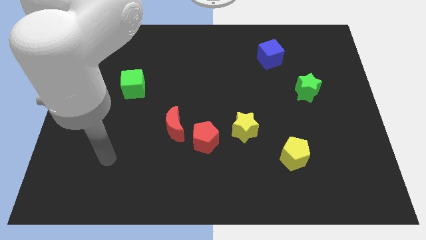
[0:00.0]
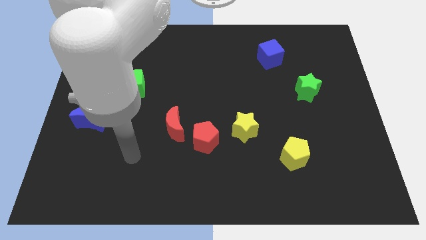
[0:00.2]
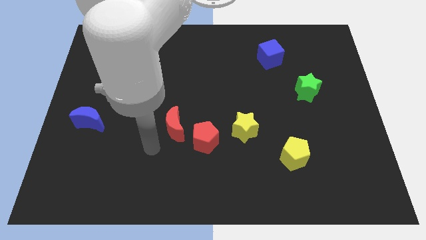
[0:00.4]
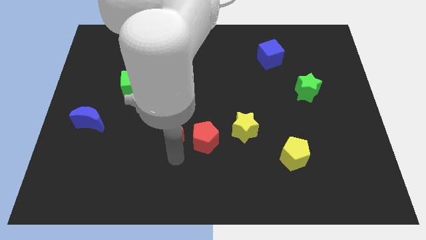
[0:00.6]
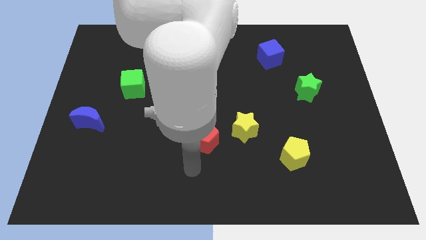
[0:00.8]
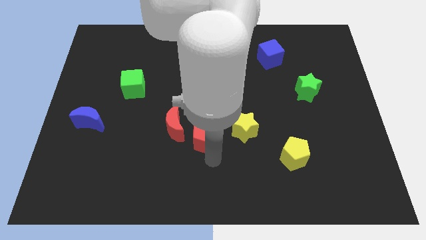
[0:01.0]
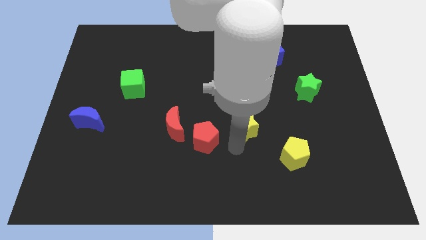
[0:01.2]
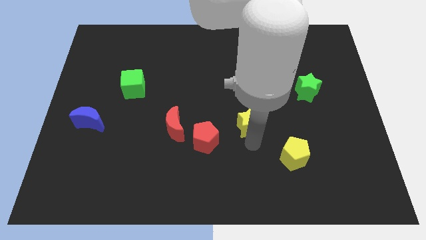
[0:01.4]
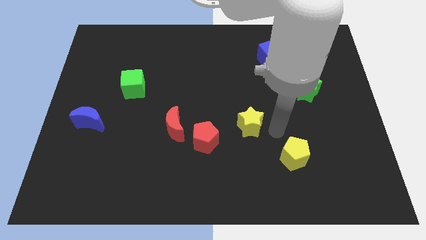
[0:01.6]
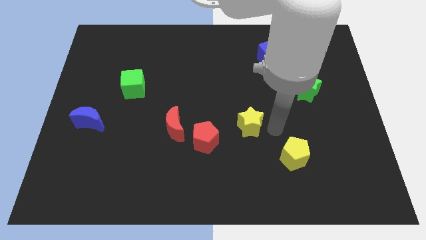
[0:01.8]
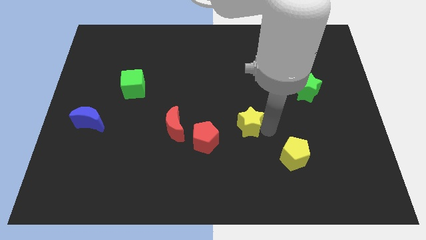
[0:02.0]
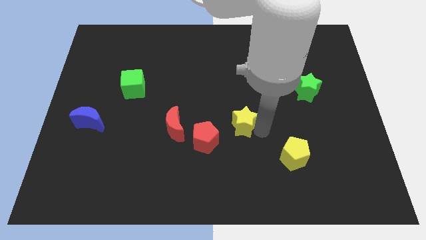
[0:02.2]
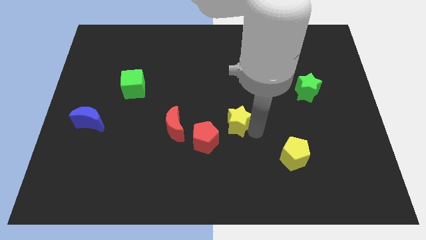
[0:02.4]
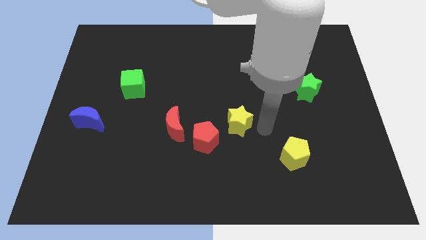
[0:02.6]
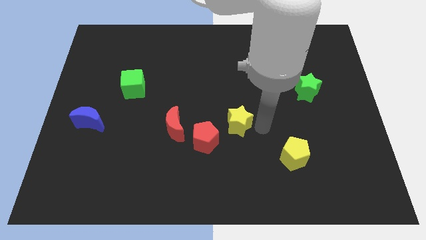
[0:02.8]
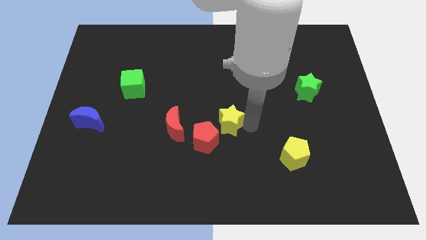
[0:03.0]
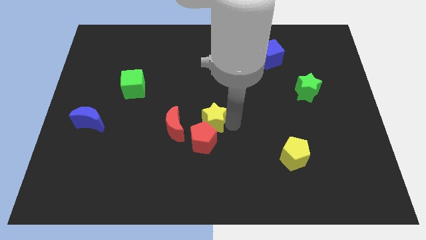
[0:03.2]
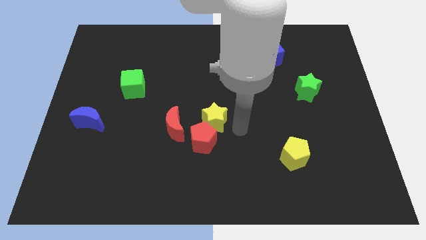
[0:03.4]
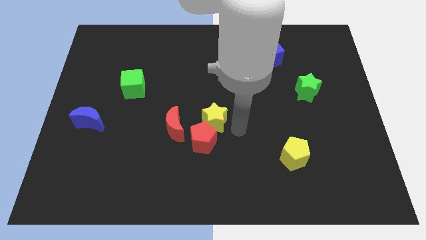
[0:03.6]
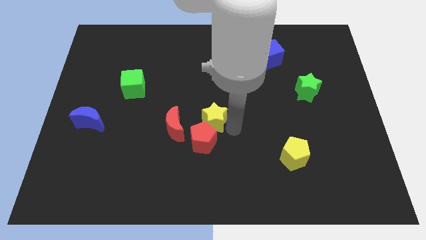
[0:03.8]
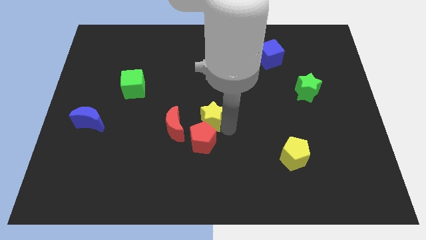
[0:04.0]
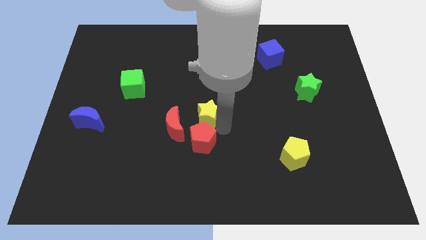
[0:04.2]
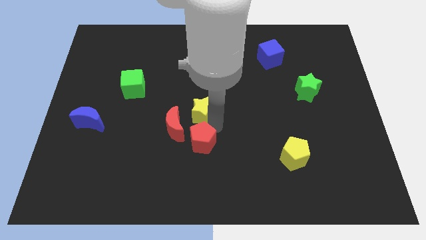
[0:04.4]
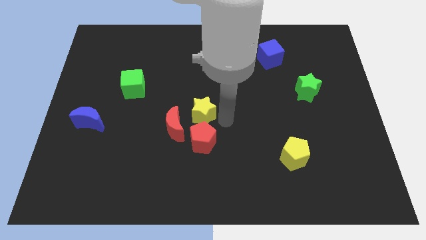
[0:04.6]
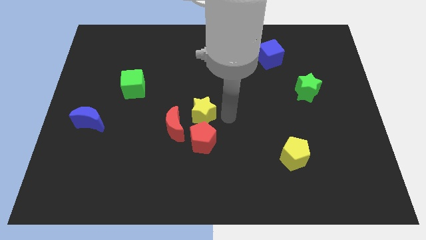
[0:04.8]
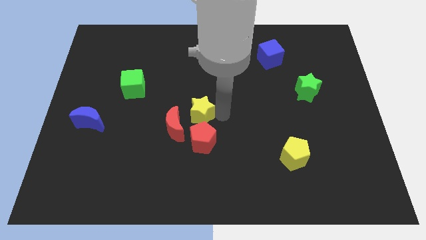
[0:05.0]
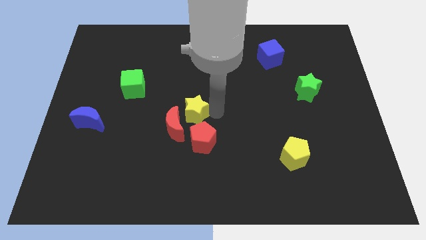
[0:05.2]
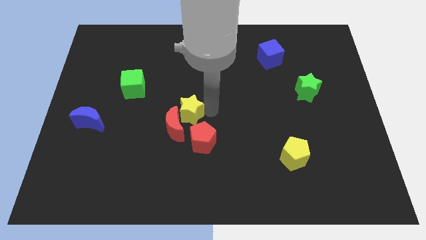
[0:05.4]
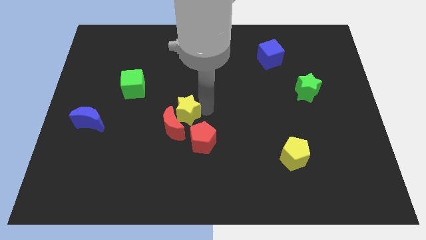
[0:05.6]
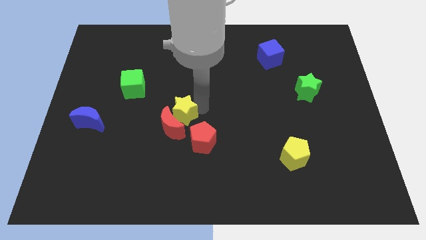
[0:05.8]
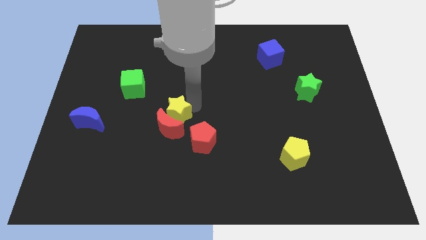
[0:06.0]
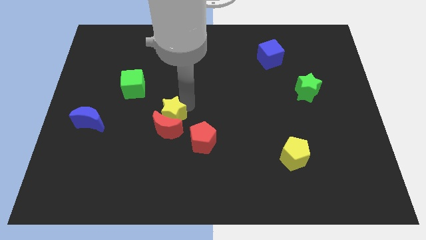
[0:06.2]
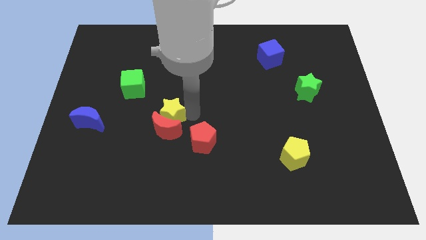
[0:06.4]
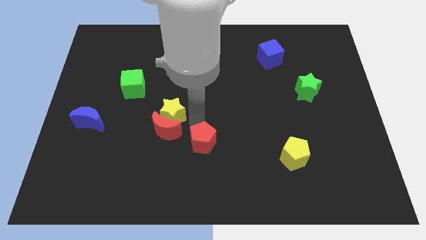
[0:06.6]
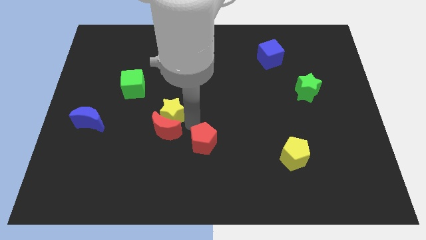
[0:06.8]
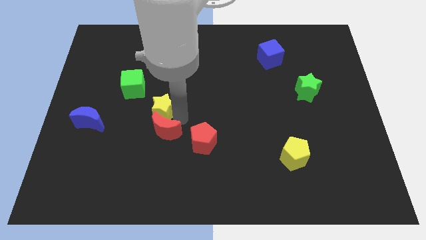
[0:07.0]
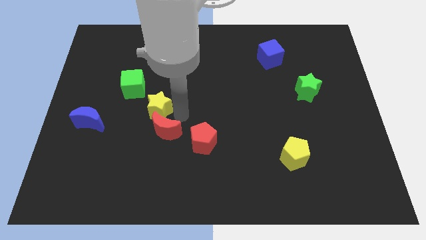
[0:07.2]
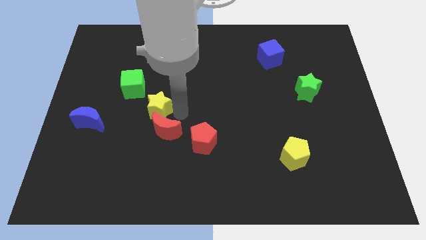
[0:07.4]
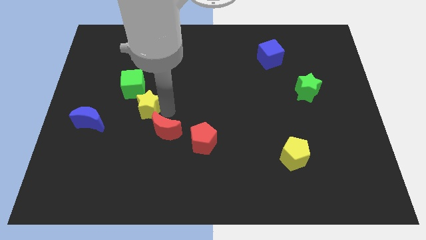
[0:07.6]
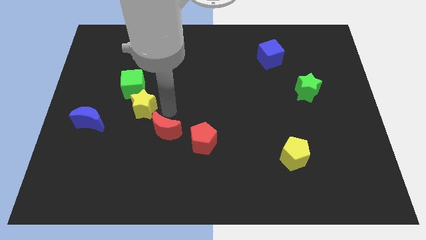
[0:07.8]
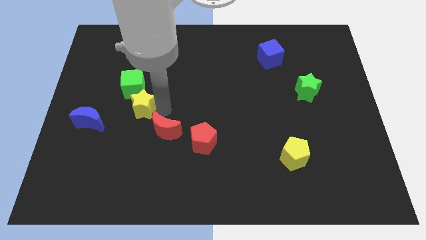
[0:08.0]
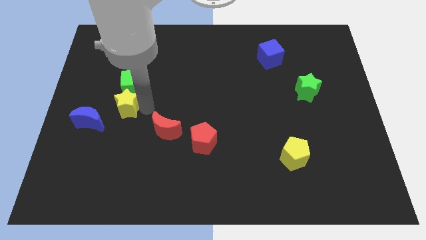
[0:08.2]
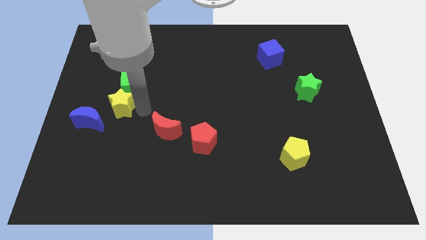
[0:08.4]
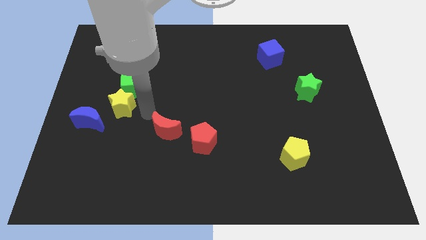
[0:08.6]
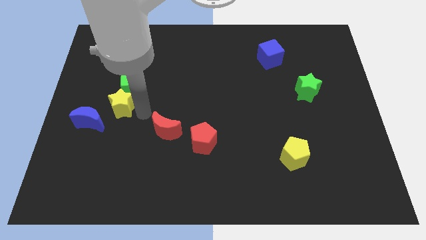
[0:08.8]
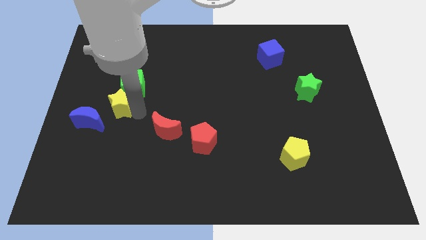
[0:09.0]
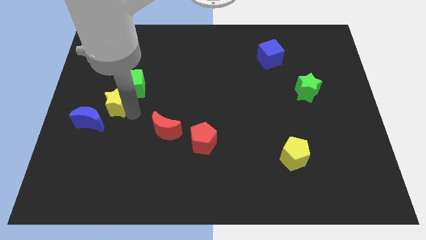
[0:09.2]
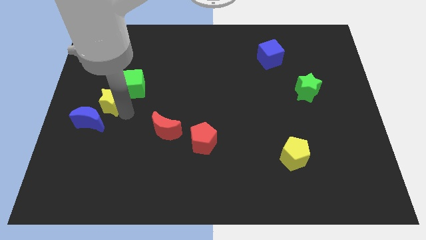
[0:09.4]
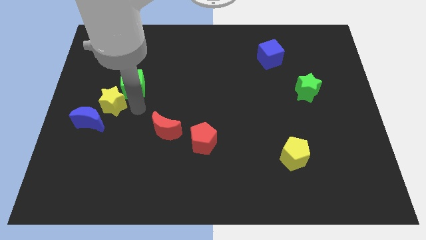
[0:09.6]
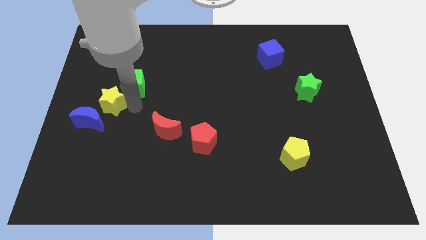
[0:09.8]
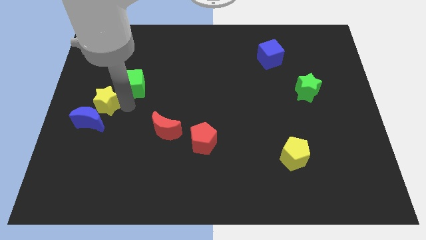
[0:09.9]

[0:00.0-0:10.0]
move the yellow star to the center left

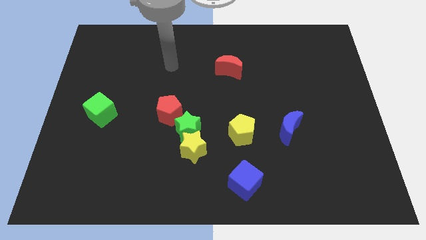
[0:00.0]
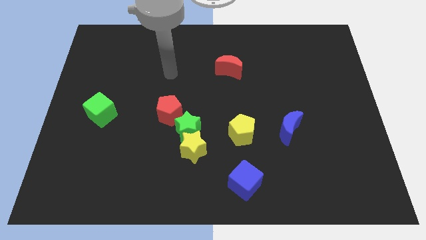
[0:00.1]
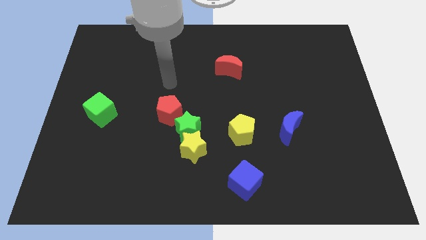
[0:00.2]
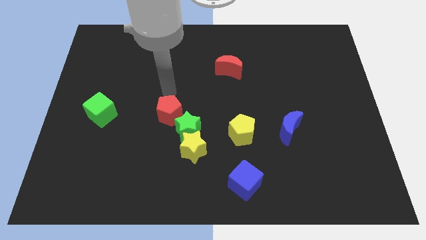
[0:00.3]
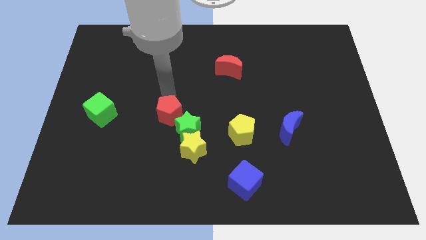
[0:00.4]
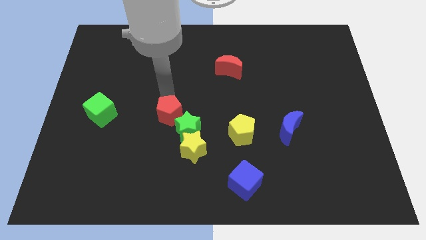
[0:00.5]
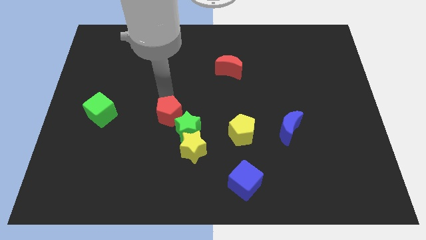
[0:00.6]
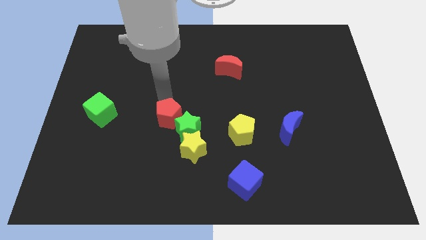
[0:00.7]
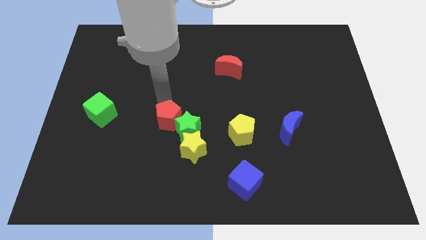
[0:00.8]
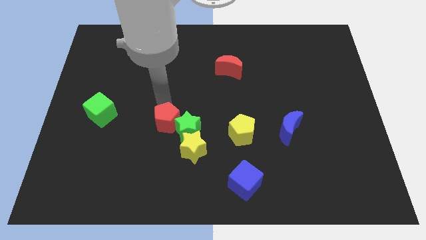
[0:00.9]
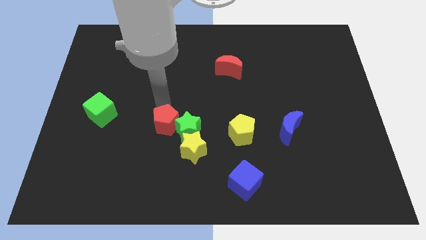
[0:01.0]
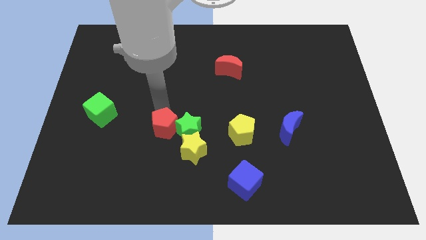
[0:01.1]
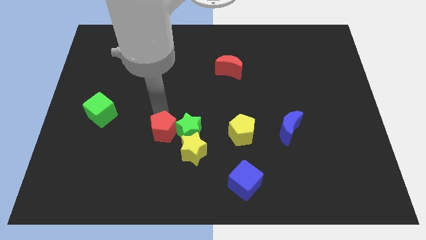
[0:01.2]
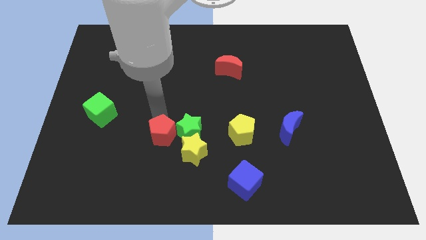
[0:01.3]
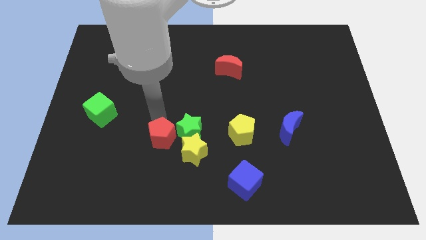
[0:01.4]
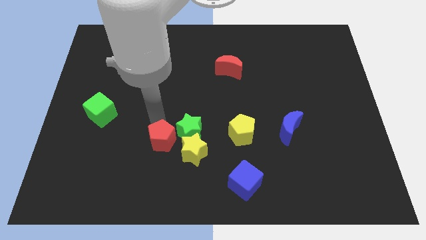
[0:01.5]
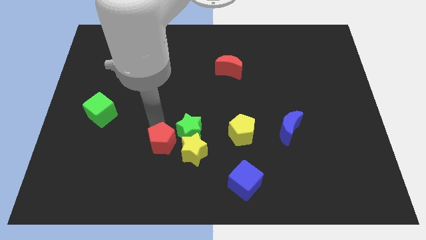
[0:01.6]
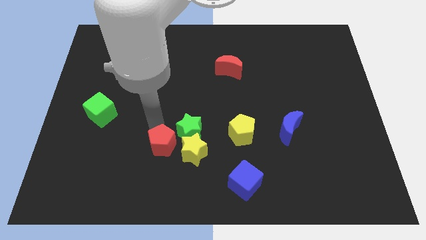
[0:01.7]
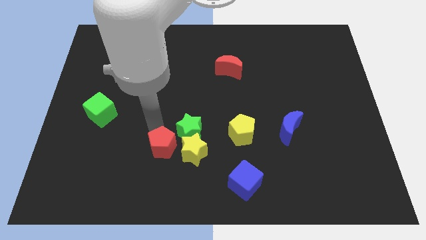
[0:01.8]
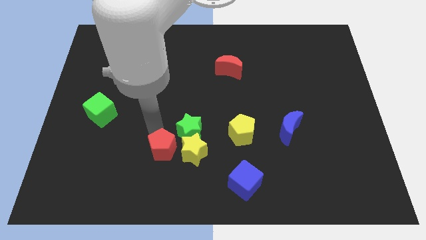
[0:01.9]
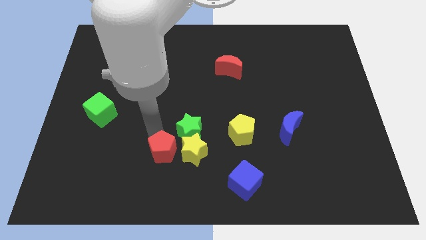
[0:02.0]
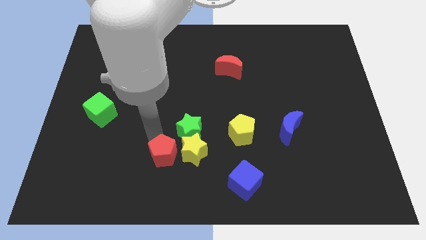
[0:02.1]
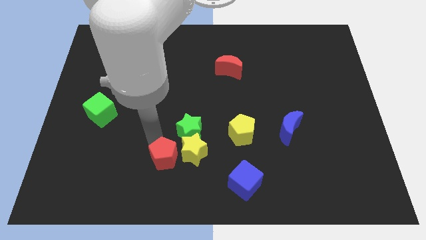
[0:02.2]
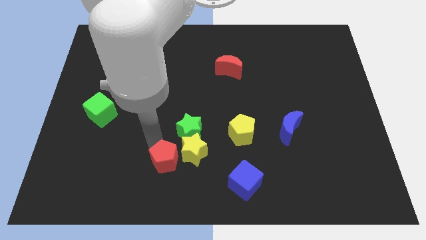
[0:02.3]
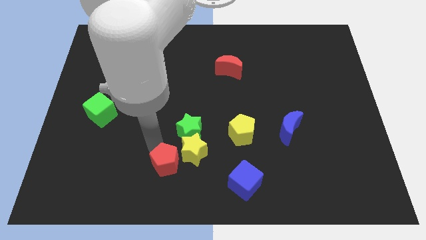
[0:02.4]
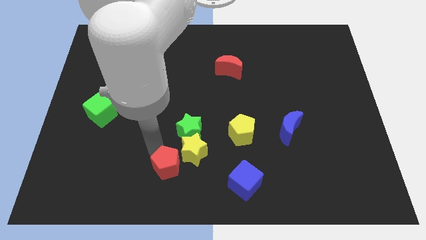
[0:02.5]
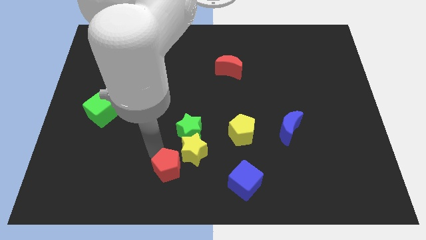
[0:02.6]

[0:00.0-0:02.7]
move the red pentagon to the bottom
